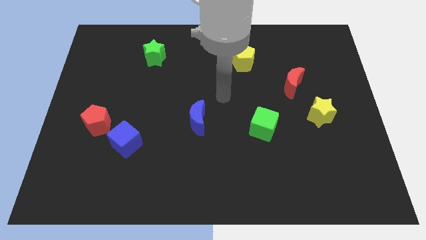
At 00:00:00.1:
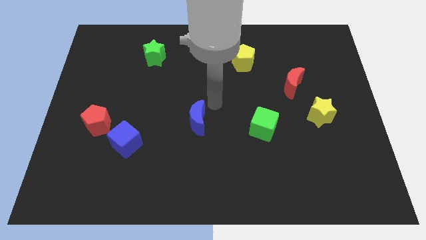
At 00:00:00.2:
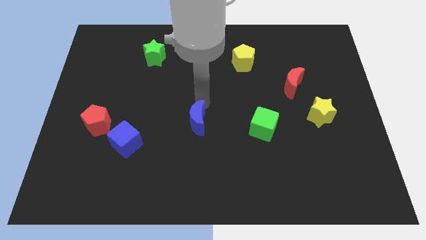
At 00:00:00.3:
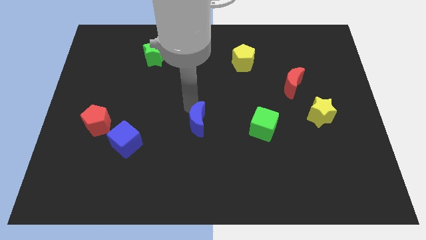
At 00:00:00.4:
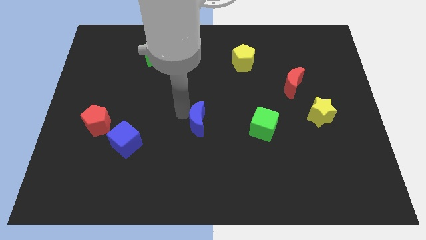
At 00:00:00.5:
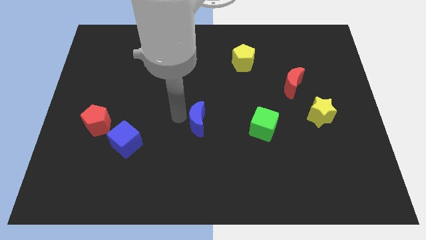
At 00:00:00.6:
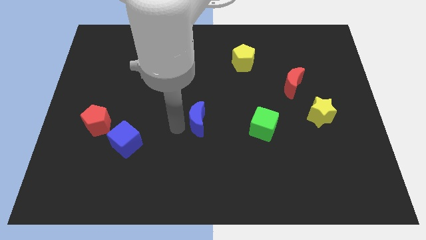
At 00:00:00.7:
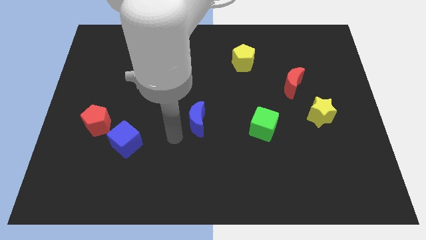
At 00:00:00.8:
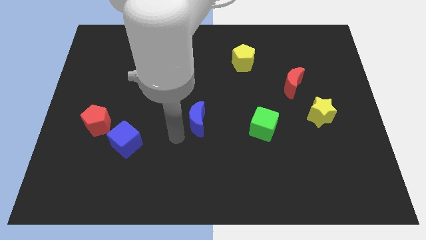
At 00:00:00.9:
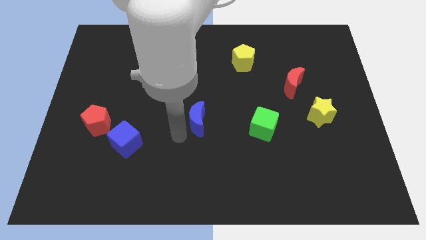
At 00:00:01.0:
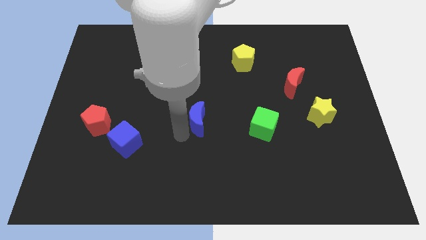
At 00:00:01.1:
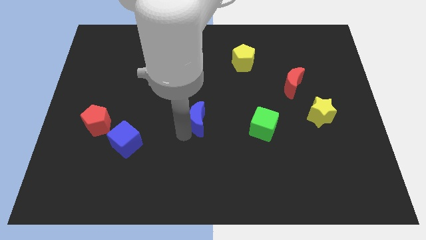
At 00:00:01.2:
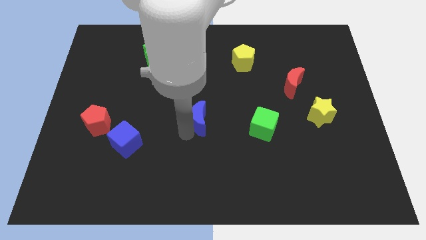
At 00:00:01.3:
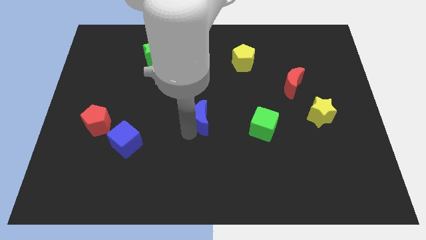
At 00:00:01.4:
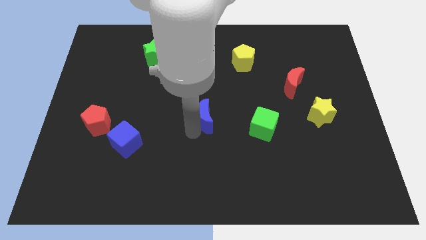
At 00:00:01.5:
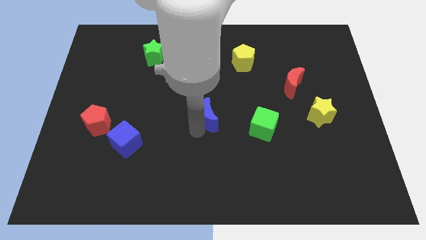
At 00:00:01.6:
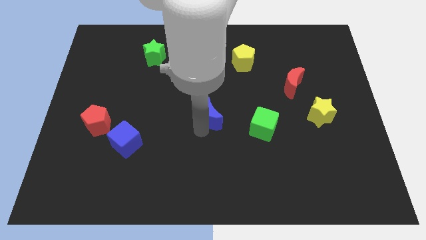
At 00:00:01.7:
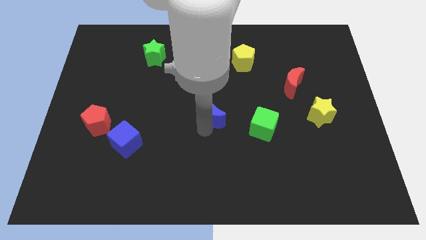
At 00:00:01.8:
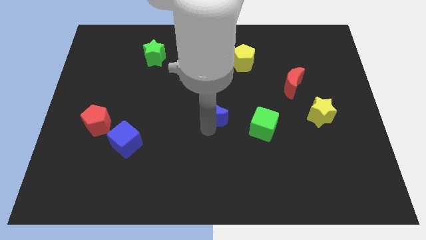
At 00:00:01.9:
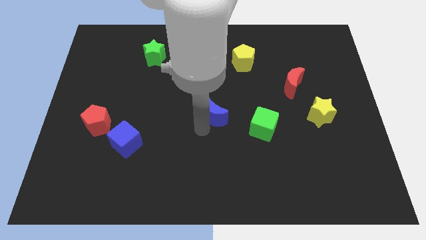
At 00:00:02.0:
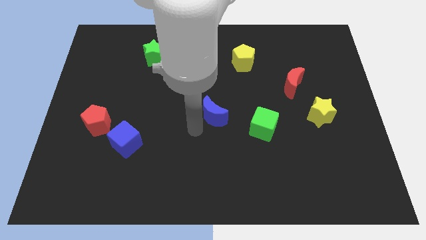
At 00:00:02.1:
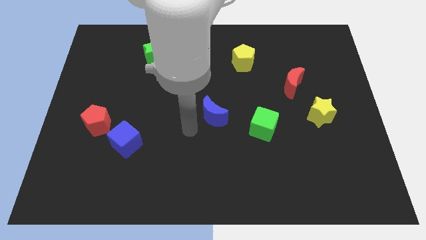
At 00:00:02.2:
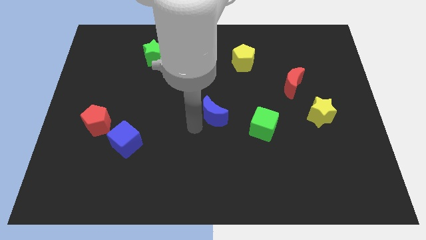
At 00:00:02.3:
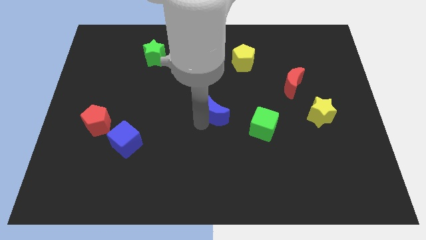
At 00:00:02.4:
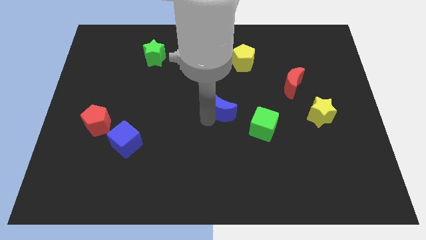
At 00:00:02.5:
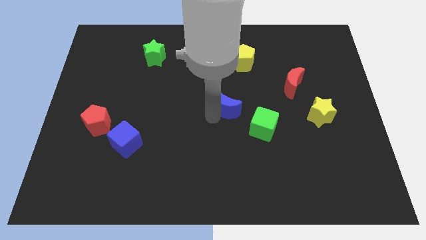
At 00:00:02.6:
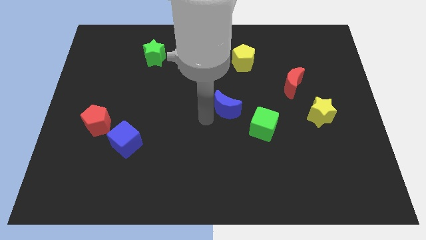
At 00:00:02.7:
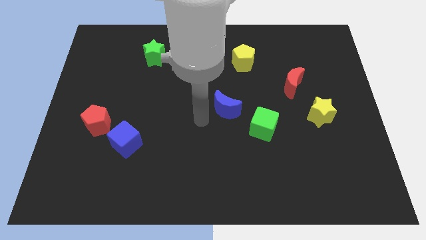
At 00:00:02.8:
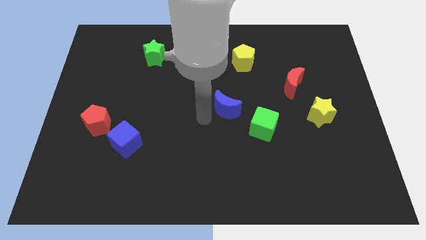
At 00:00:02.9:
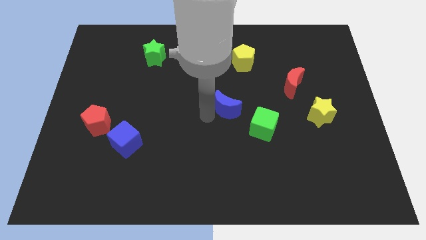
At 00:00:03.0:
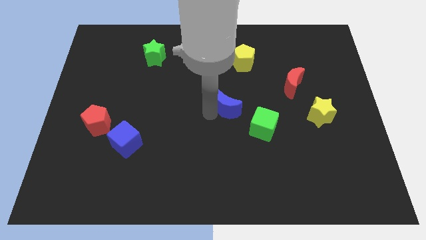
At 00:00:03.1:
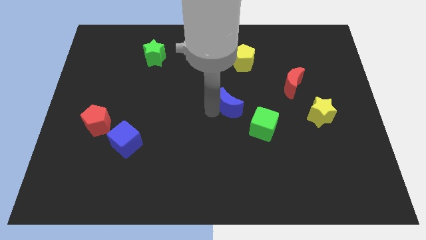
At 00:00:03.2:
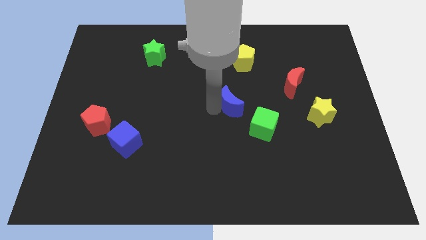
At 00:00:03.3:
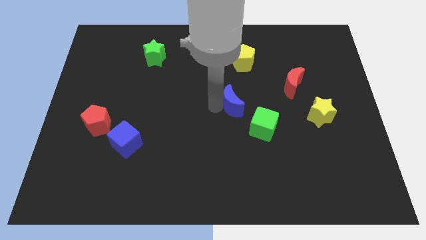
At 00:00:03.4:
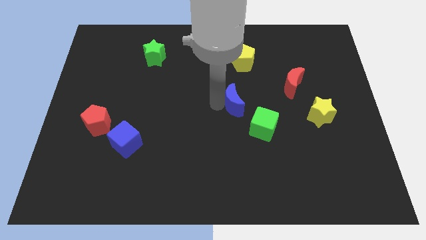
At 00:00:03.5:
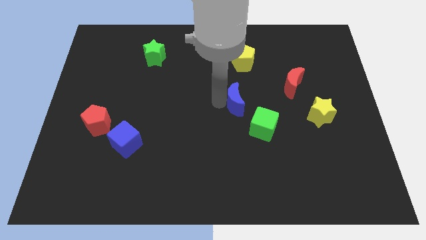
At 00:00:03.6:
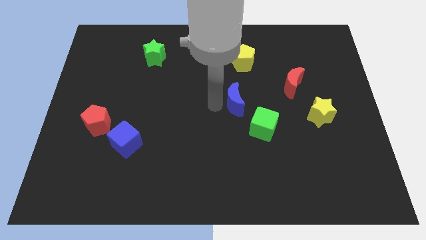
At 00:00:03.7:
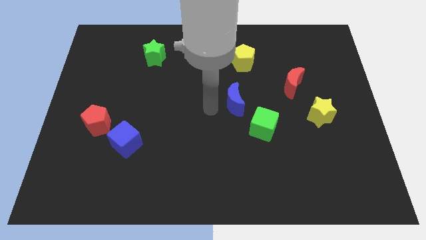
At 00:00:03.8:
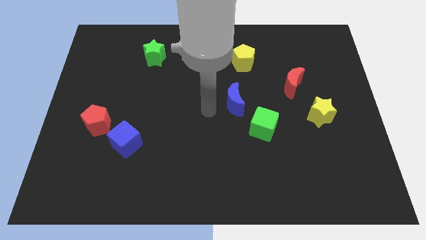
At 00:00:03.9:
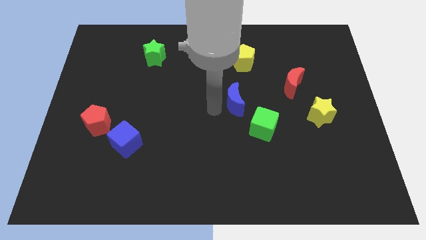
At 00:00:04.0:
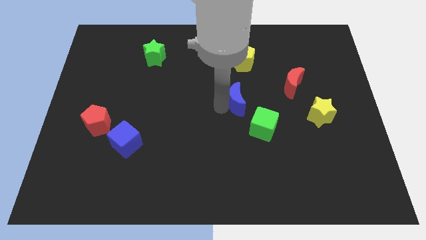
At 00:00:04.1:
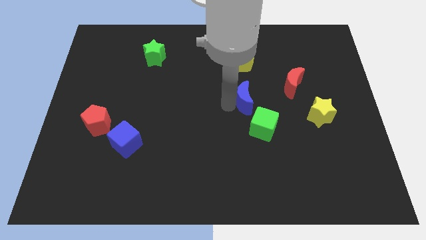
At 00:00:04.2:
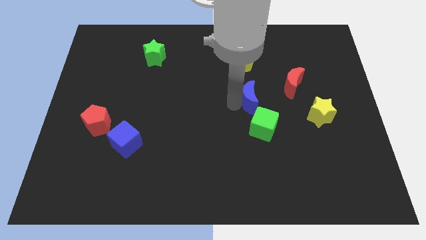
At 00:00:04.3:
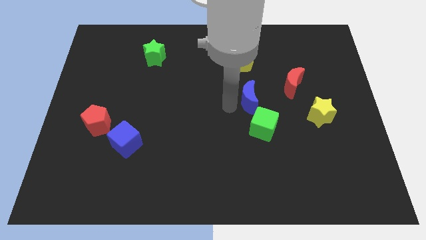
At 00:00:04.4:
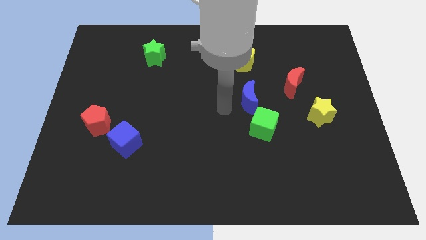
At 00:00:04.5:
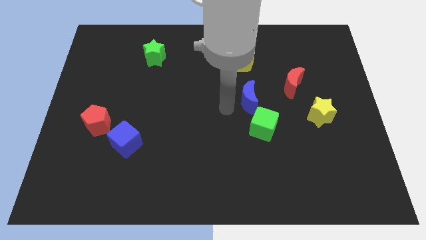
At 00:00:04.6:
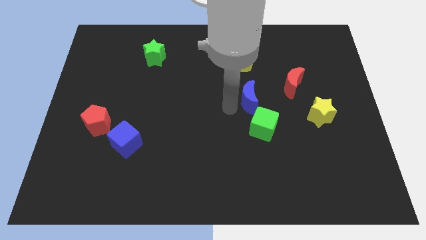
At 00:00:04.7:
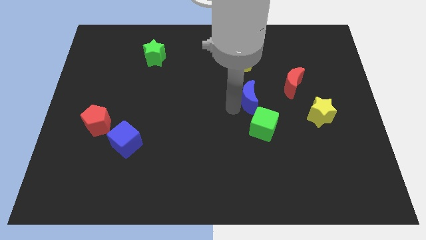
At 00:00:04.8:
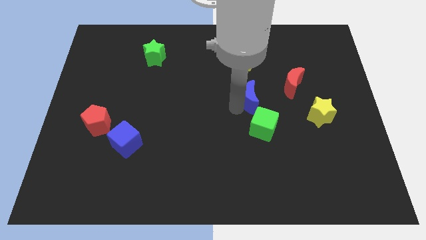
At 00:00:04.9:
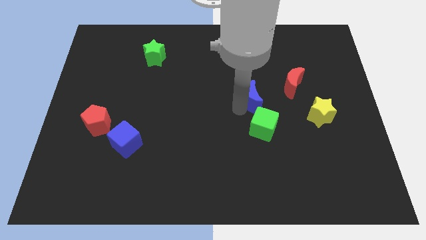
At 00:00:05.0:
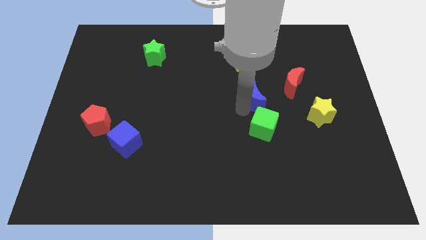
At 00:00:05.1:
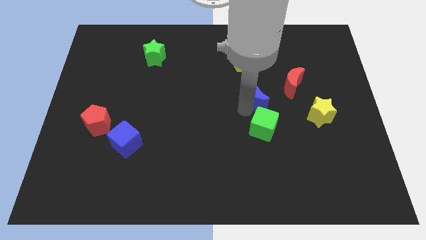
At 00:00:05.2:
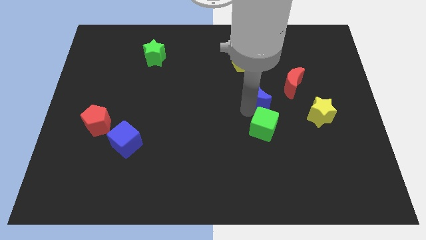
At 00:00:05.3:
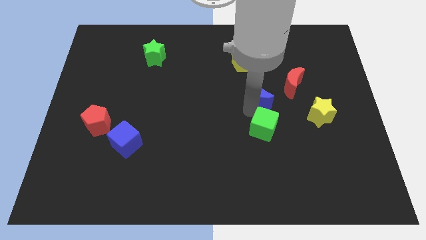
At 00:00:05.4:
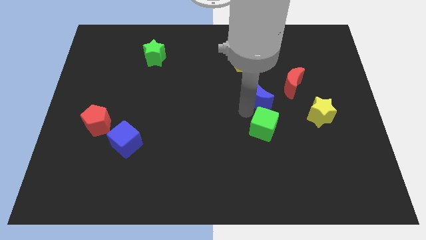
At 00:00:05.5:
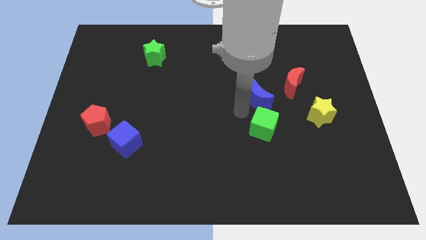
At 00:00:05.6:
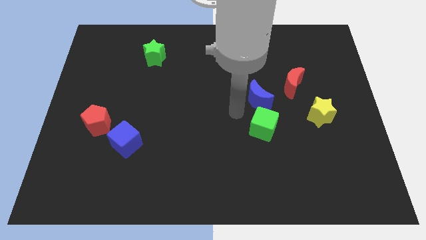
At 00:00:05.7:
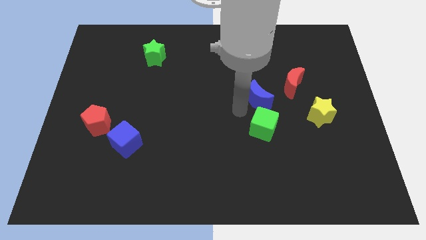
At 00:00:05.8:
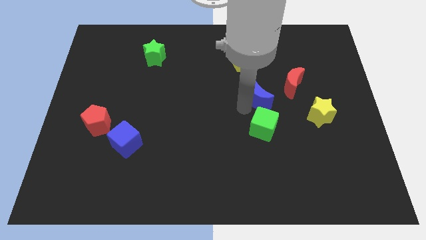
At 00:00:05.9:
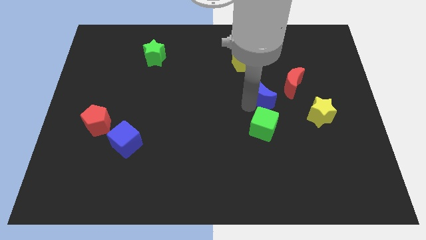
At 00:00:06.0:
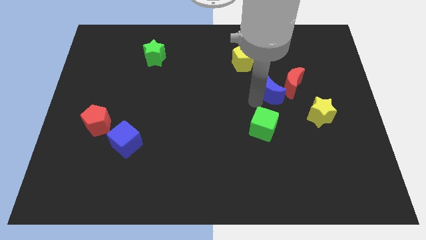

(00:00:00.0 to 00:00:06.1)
push the blue moon towards the red moon
